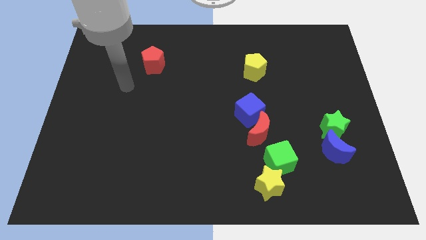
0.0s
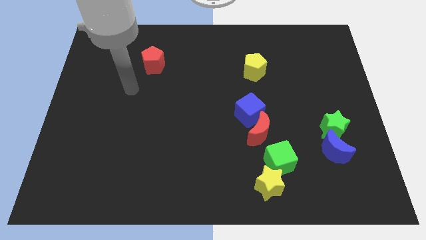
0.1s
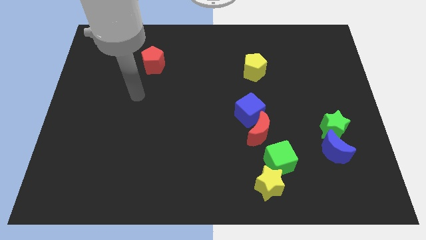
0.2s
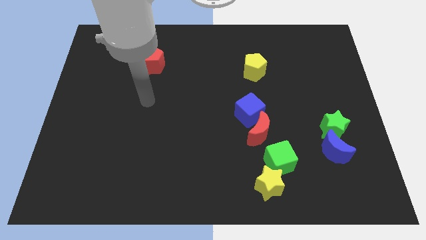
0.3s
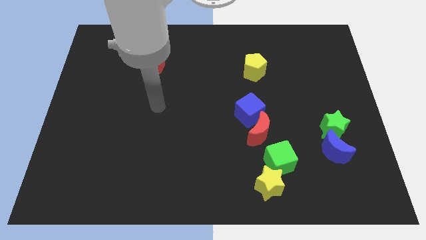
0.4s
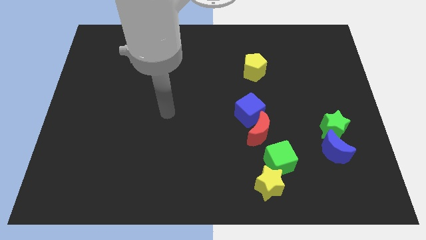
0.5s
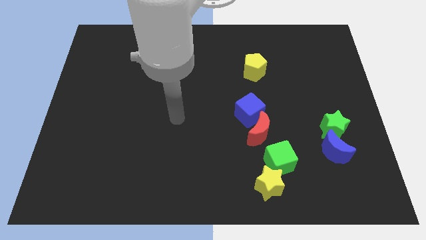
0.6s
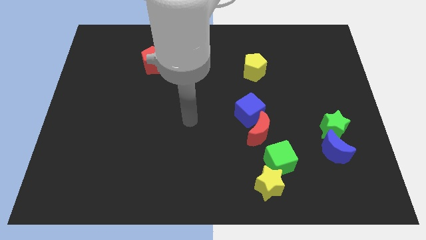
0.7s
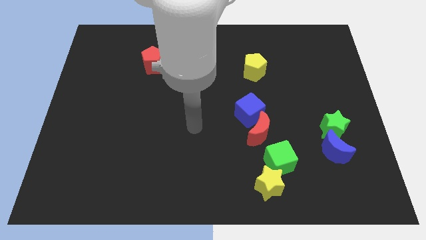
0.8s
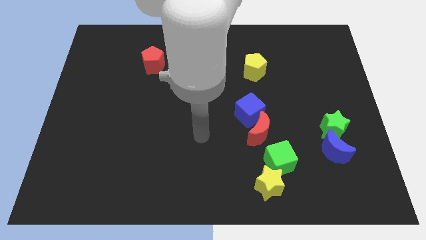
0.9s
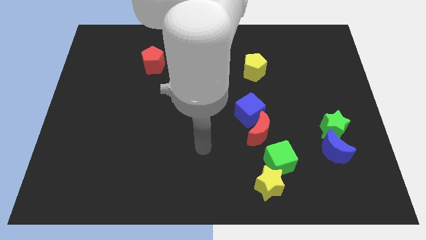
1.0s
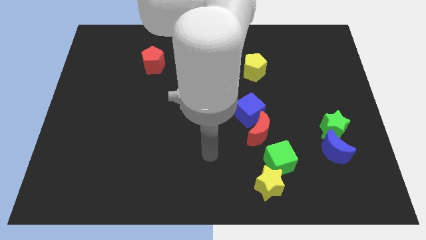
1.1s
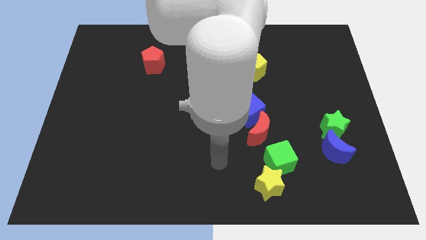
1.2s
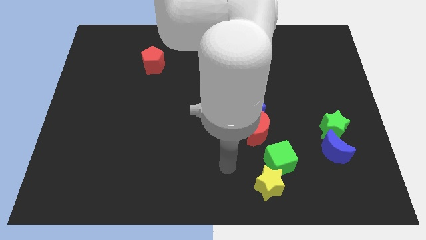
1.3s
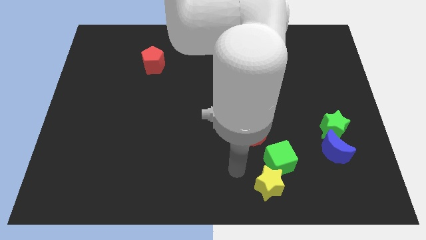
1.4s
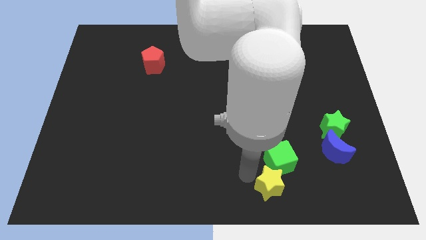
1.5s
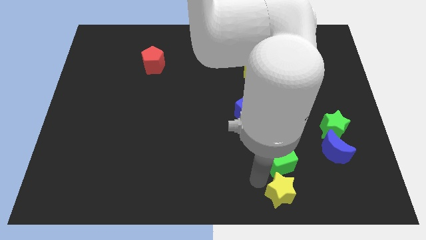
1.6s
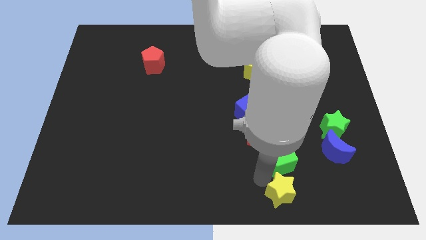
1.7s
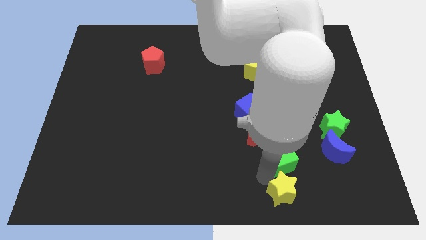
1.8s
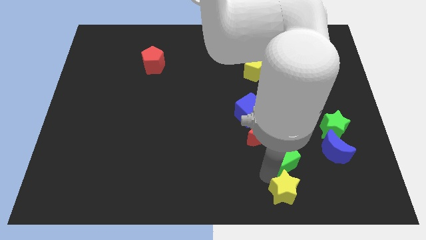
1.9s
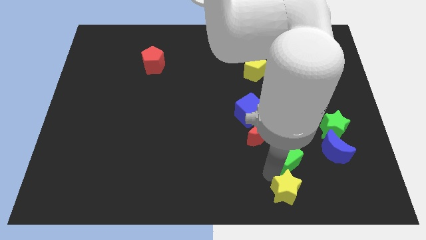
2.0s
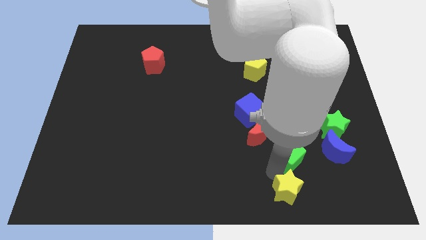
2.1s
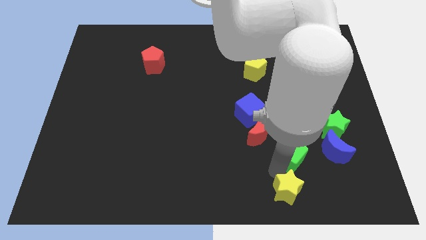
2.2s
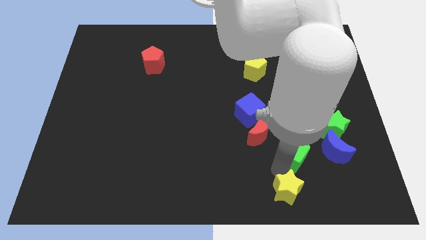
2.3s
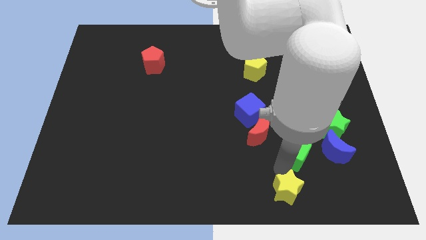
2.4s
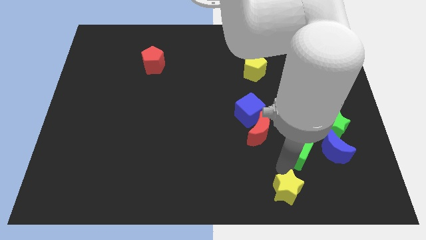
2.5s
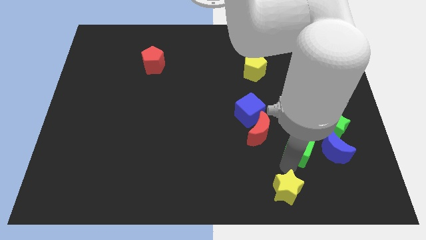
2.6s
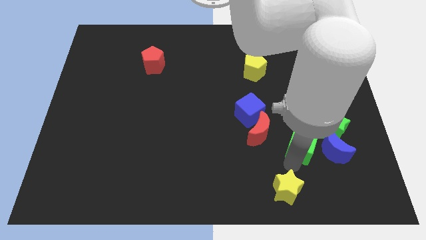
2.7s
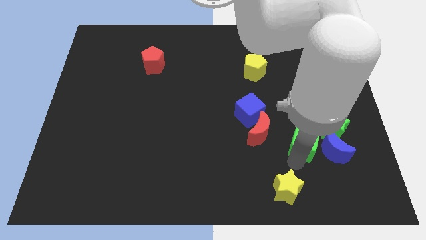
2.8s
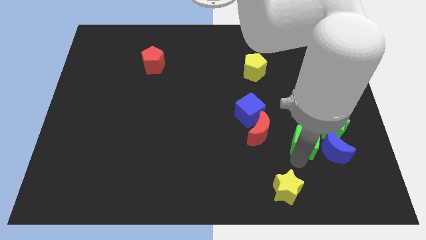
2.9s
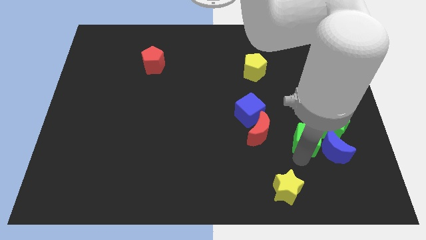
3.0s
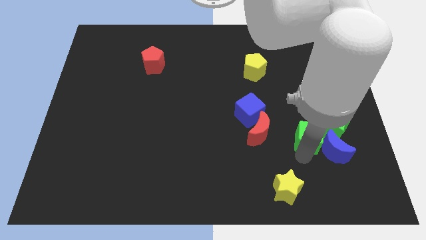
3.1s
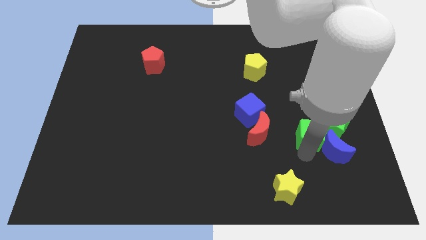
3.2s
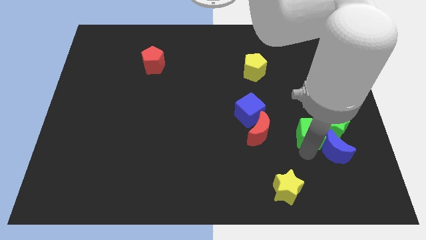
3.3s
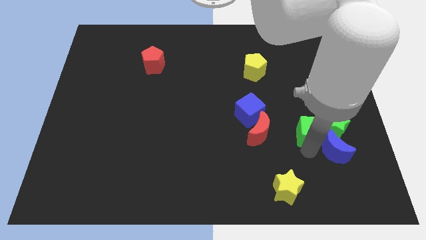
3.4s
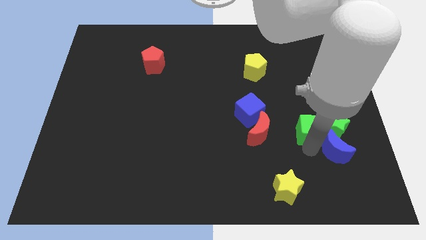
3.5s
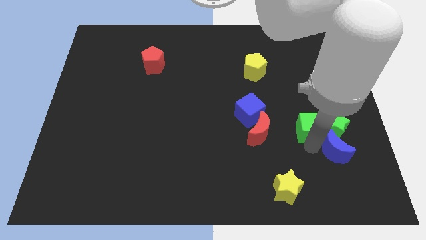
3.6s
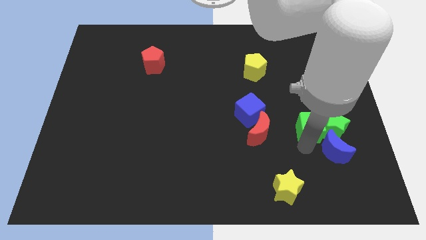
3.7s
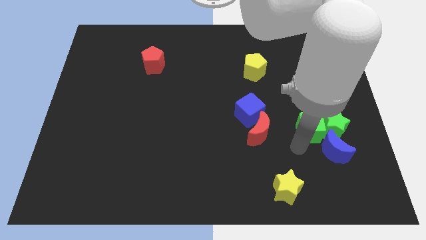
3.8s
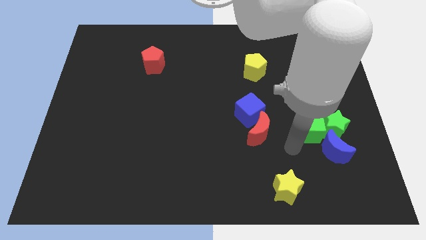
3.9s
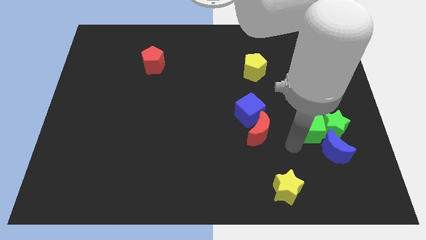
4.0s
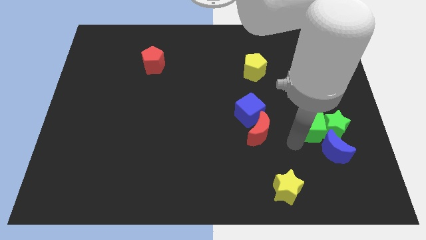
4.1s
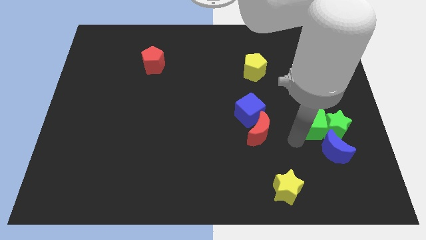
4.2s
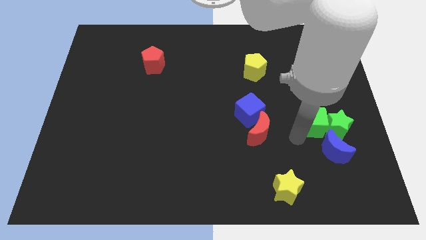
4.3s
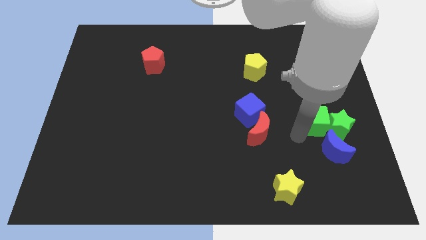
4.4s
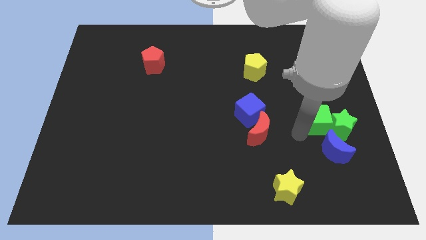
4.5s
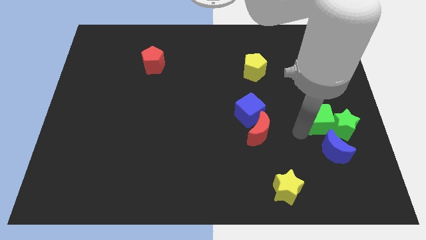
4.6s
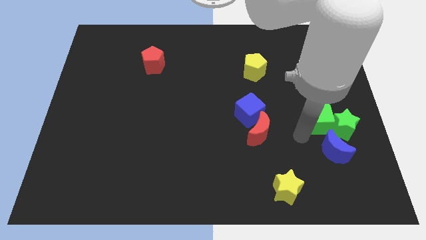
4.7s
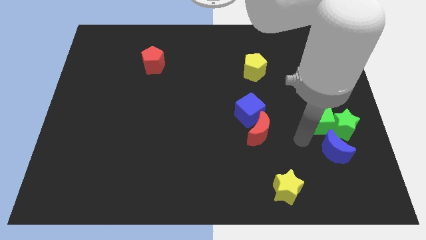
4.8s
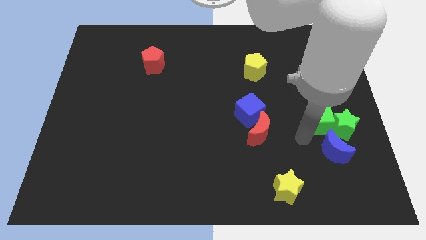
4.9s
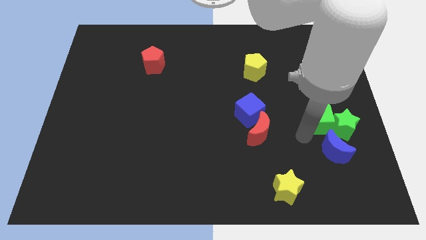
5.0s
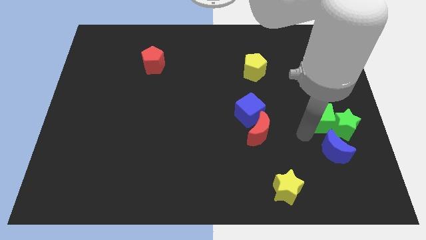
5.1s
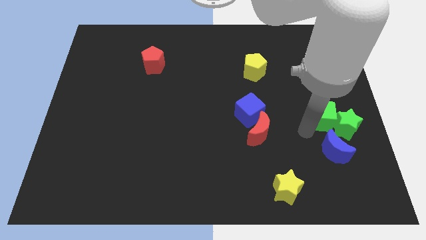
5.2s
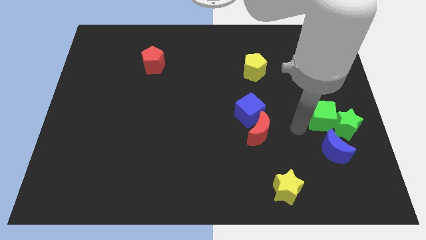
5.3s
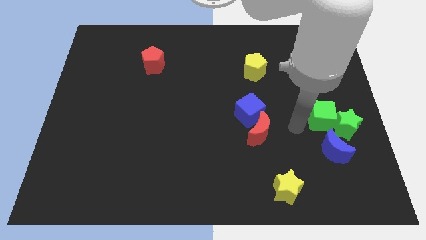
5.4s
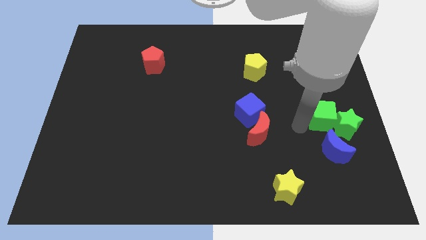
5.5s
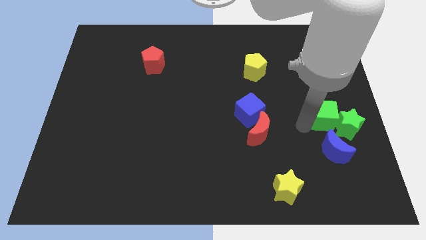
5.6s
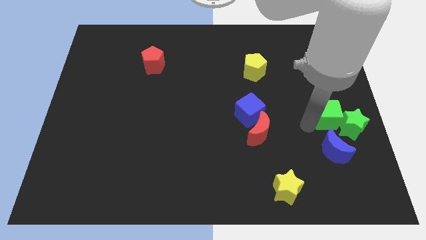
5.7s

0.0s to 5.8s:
put the green cube to the center right

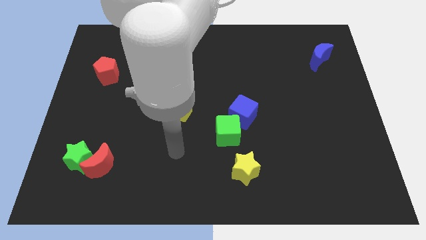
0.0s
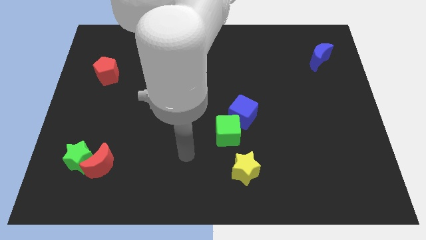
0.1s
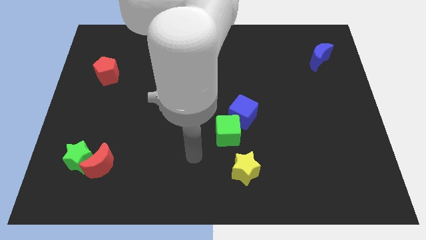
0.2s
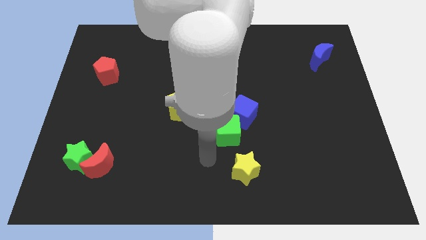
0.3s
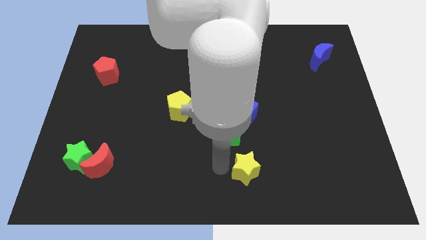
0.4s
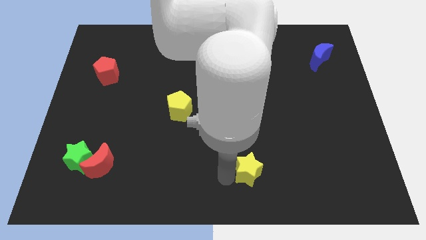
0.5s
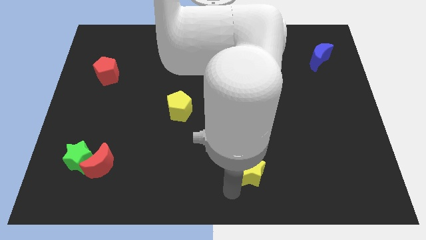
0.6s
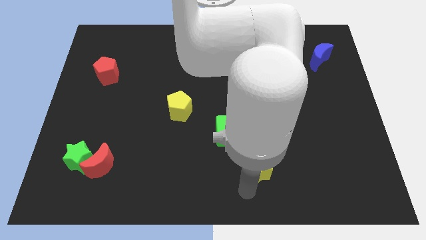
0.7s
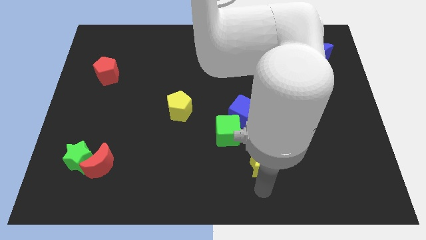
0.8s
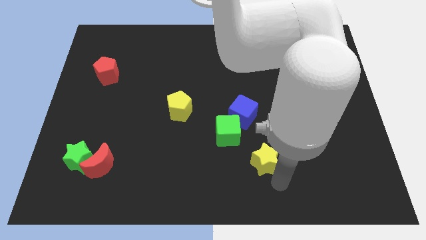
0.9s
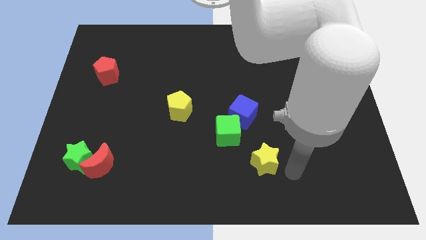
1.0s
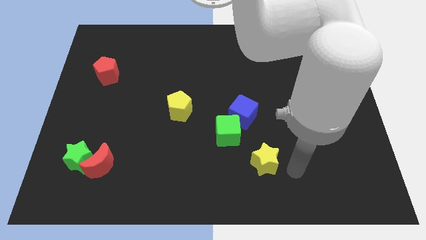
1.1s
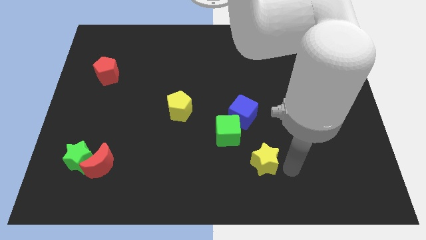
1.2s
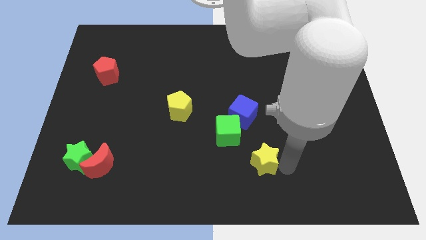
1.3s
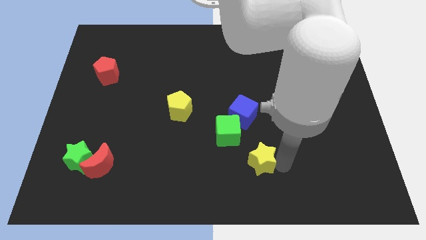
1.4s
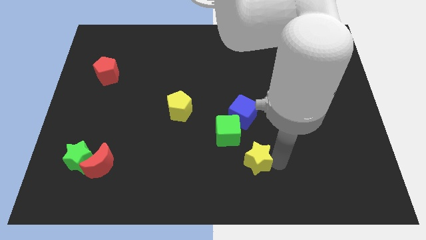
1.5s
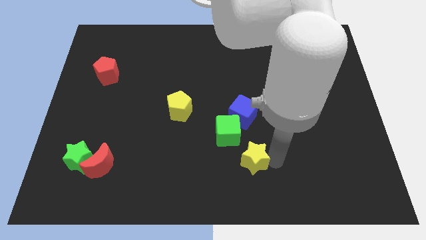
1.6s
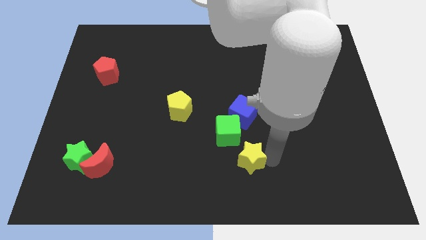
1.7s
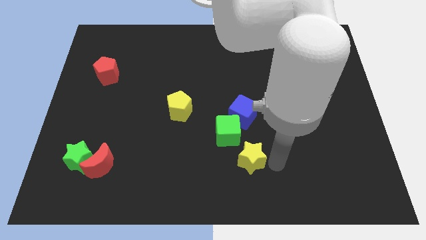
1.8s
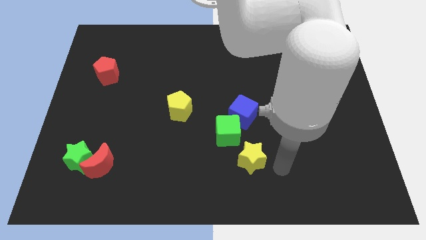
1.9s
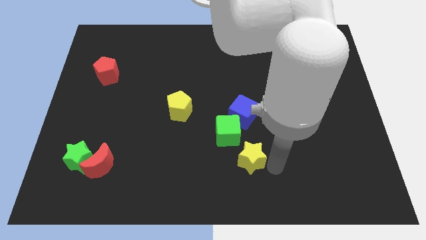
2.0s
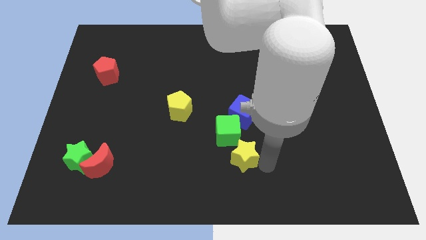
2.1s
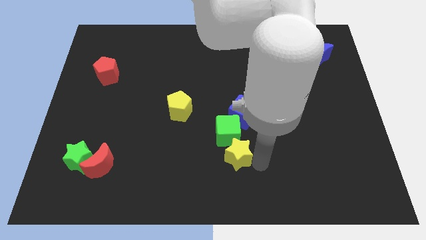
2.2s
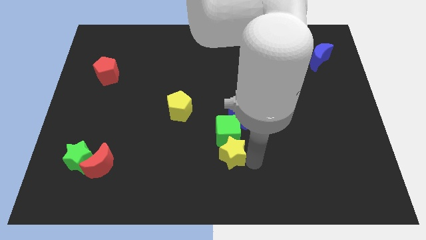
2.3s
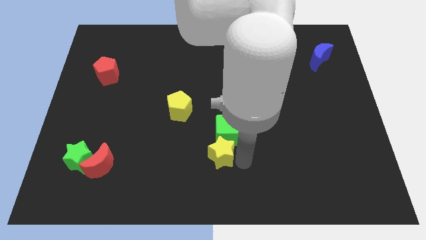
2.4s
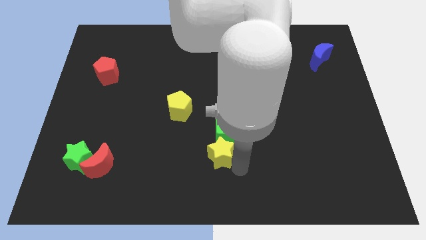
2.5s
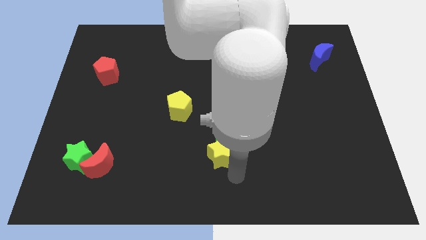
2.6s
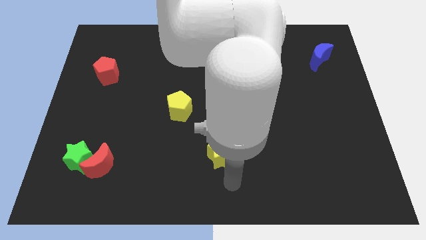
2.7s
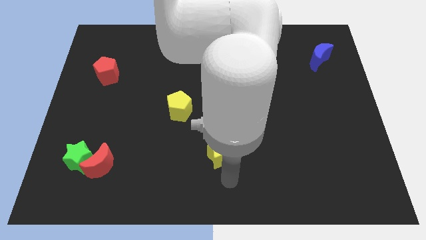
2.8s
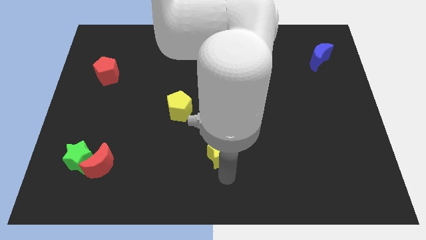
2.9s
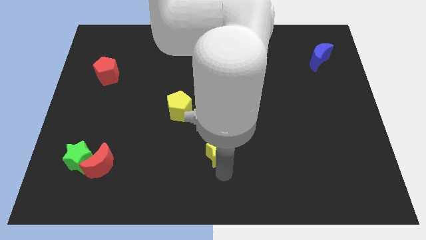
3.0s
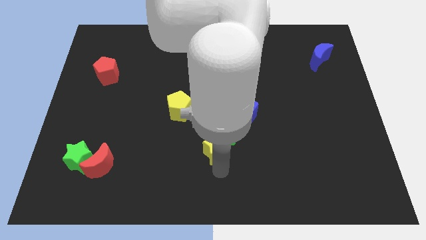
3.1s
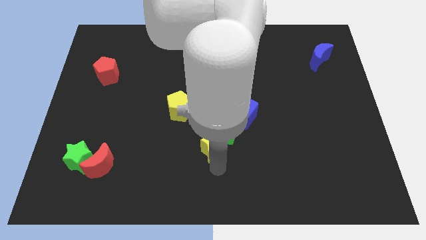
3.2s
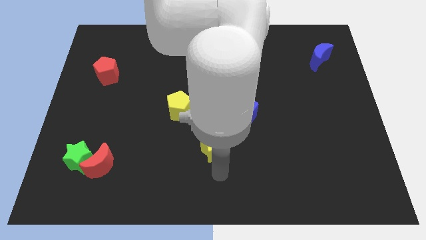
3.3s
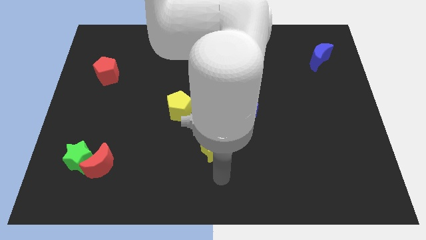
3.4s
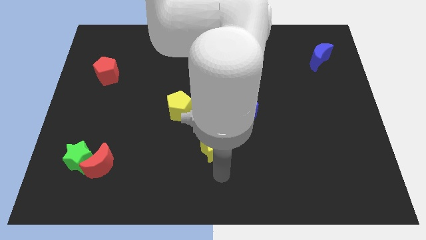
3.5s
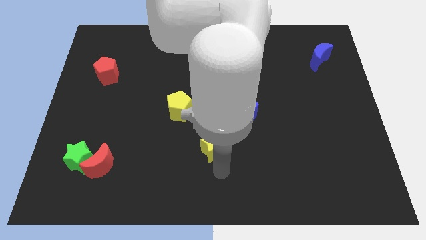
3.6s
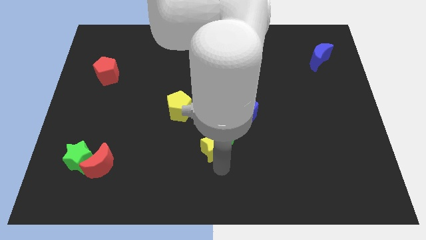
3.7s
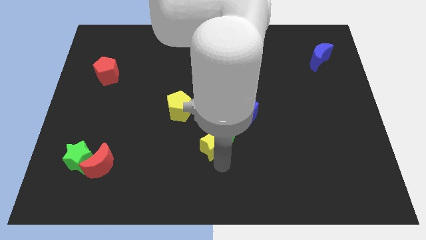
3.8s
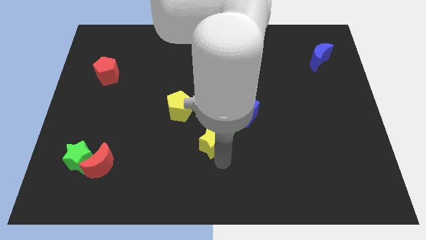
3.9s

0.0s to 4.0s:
put the yellow star to the middle
